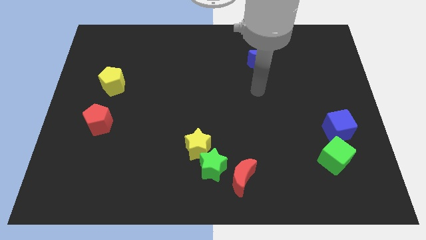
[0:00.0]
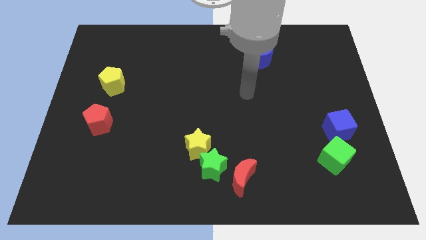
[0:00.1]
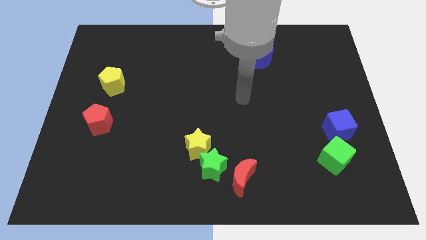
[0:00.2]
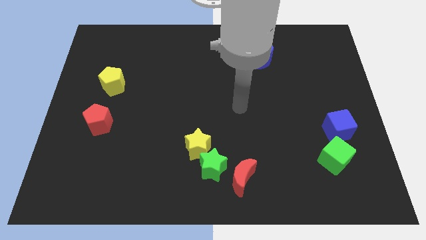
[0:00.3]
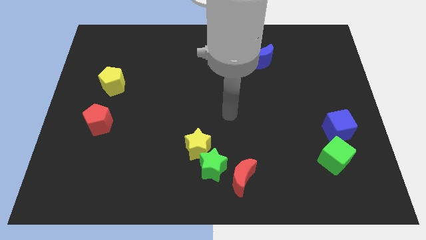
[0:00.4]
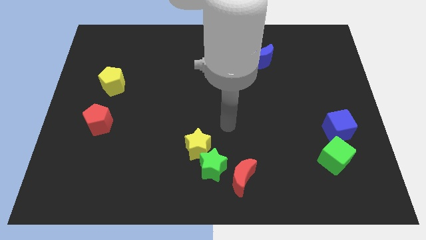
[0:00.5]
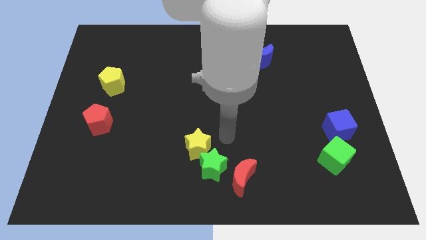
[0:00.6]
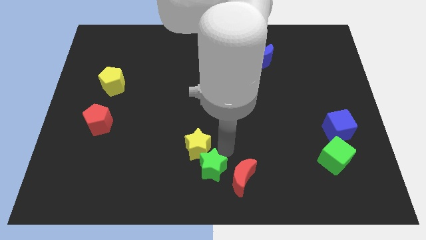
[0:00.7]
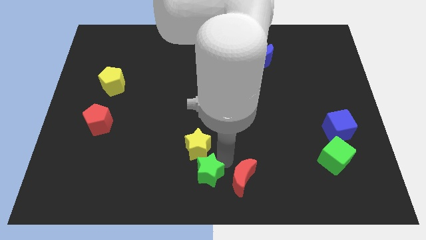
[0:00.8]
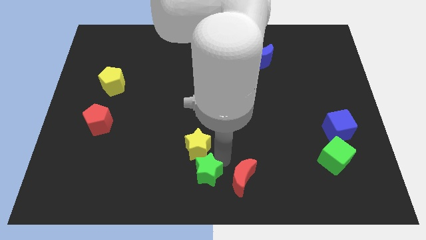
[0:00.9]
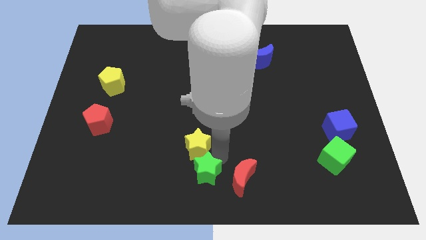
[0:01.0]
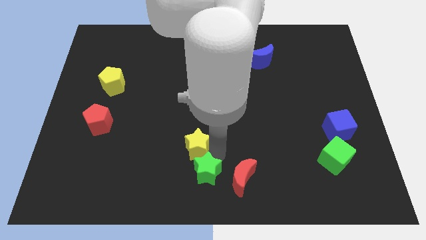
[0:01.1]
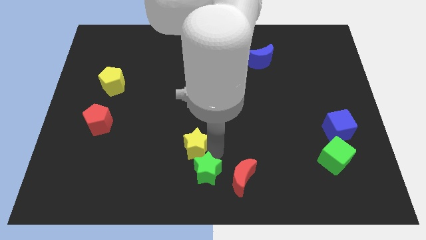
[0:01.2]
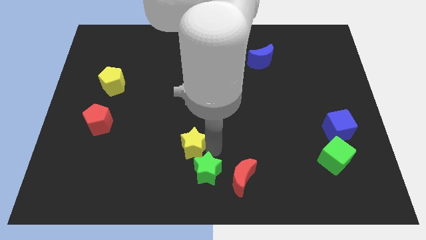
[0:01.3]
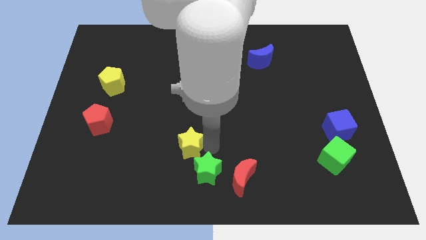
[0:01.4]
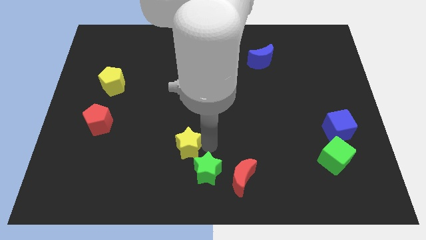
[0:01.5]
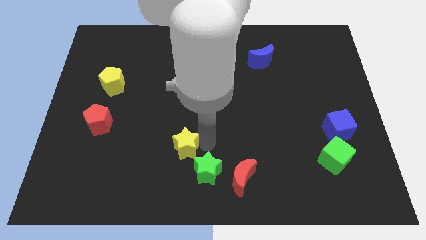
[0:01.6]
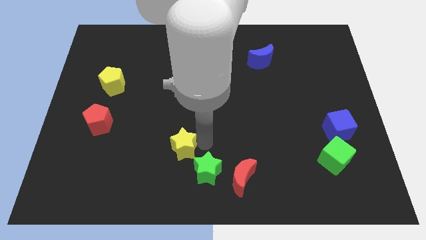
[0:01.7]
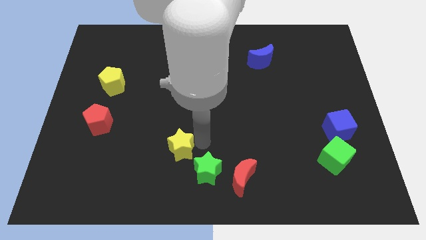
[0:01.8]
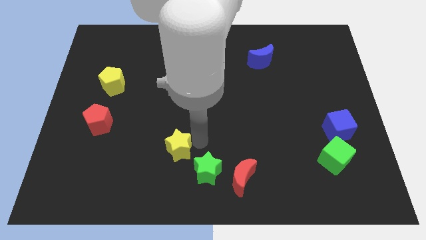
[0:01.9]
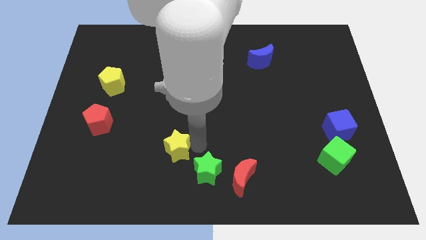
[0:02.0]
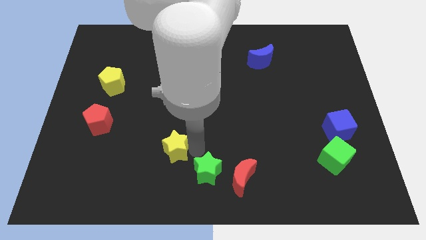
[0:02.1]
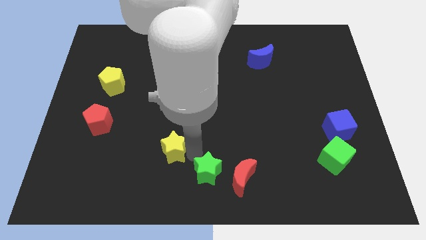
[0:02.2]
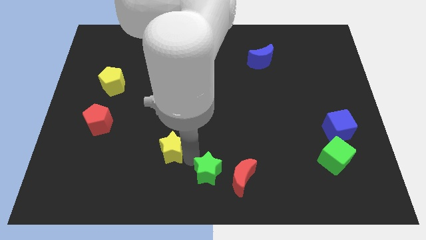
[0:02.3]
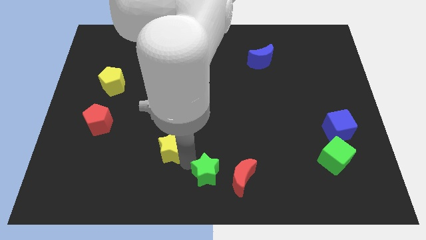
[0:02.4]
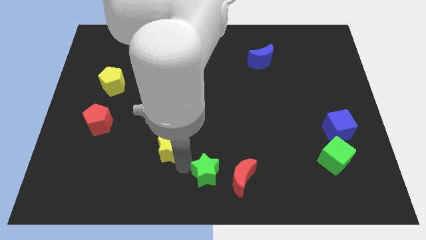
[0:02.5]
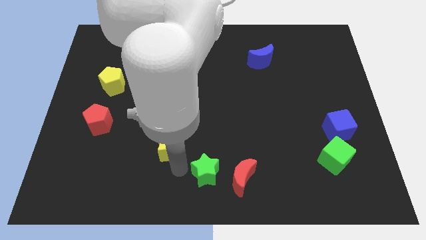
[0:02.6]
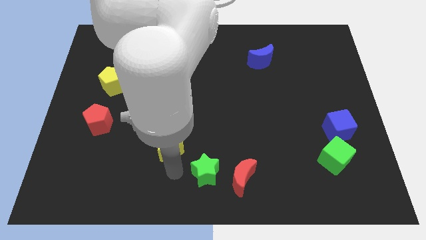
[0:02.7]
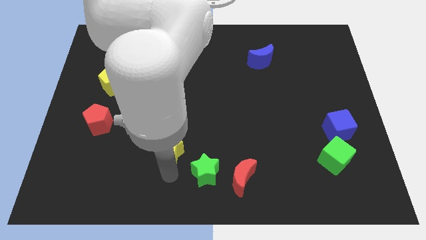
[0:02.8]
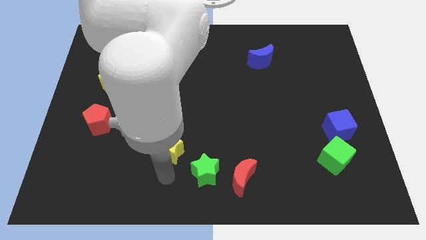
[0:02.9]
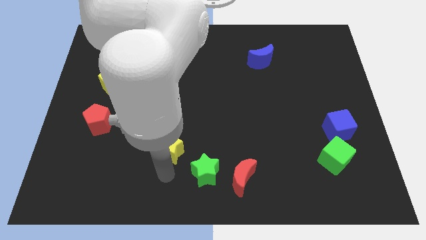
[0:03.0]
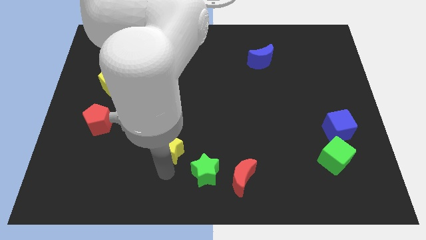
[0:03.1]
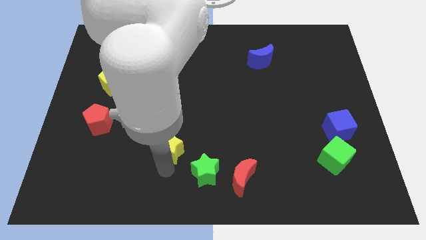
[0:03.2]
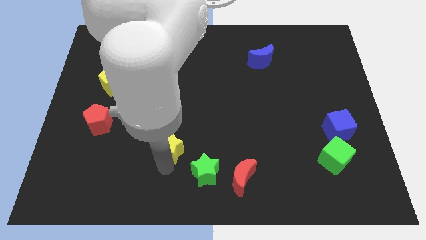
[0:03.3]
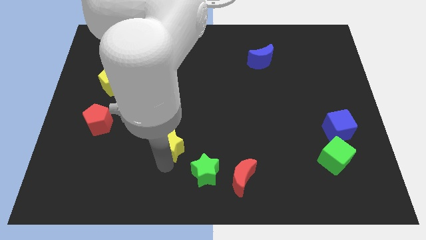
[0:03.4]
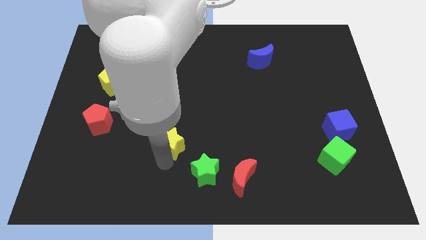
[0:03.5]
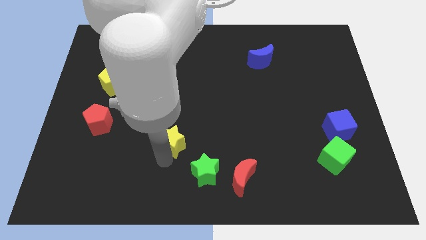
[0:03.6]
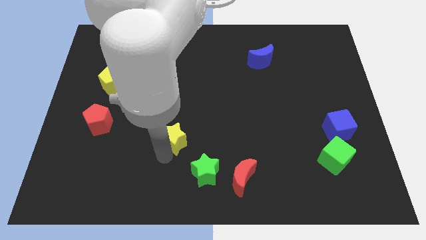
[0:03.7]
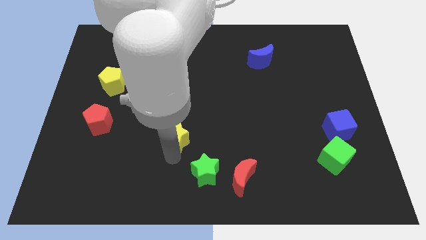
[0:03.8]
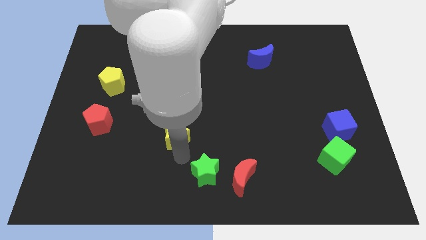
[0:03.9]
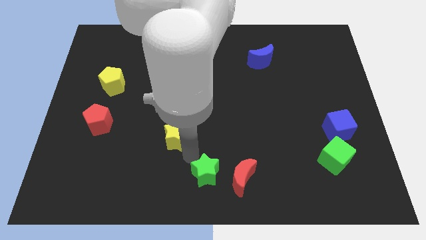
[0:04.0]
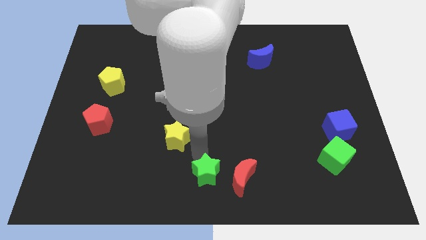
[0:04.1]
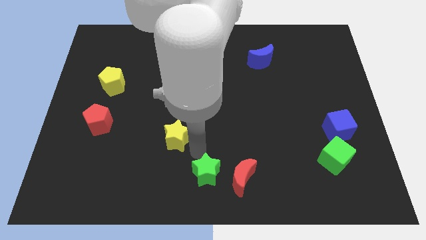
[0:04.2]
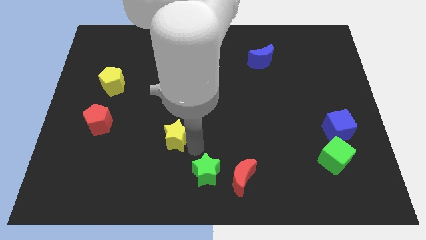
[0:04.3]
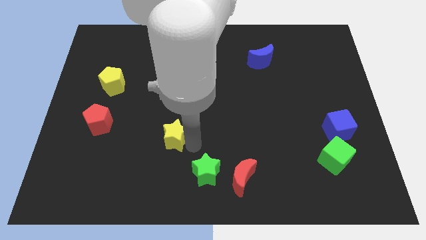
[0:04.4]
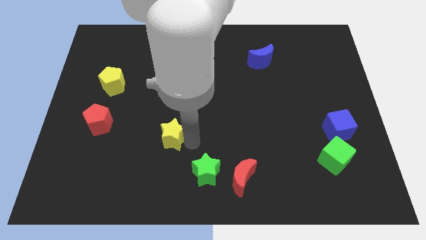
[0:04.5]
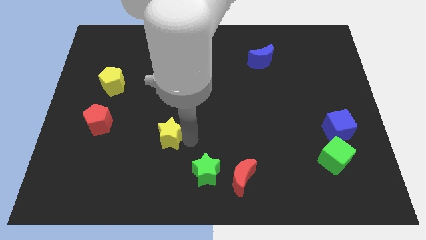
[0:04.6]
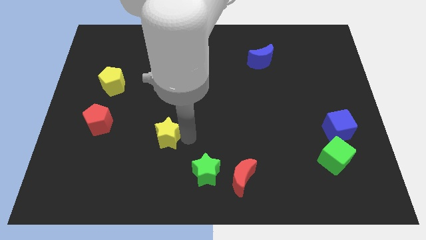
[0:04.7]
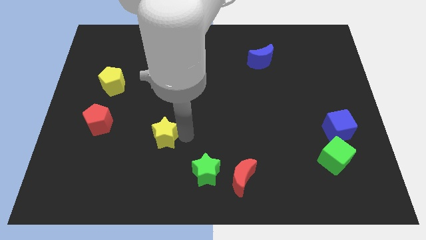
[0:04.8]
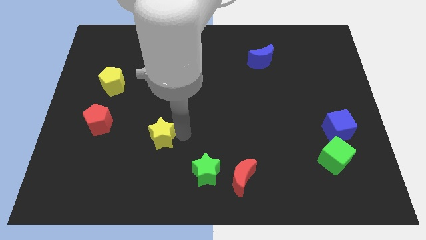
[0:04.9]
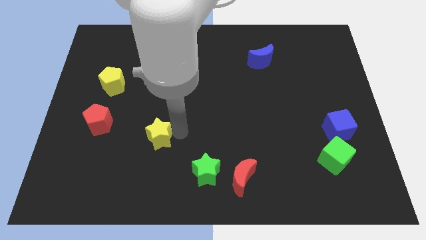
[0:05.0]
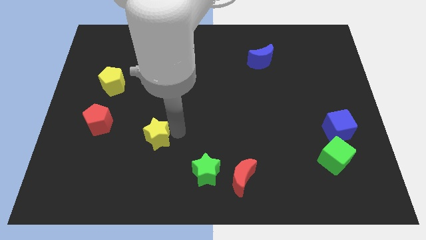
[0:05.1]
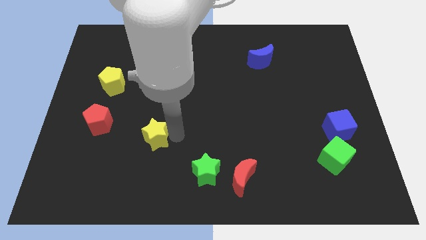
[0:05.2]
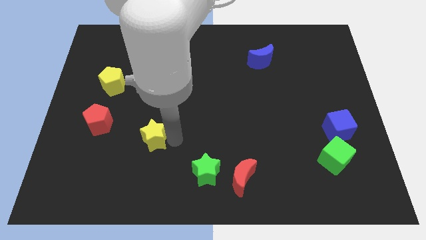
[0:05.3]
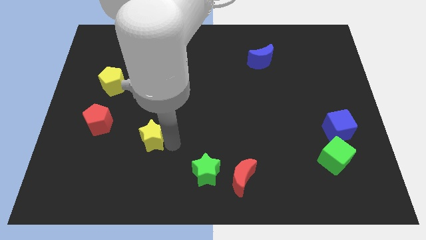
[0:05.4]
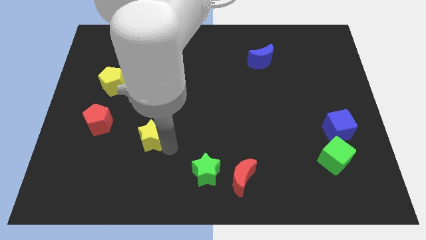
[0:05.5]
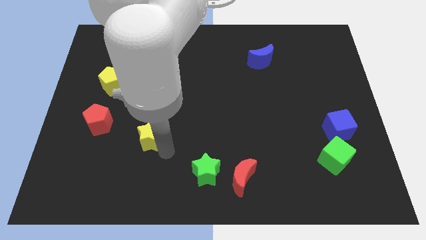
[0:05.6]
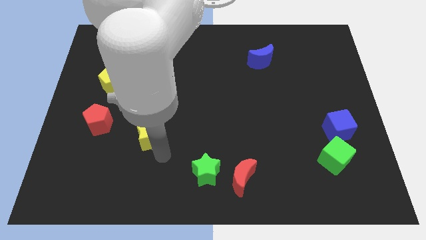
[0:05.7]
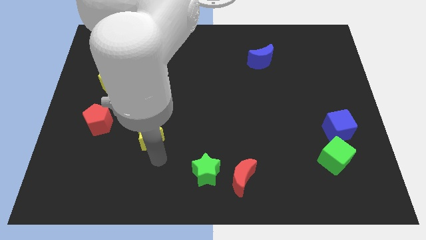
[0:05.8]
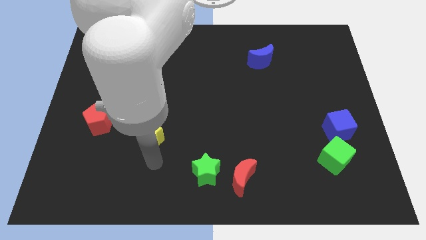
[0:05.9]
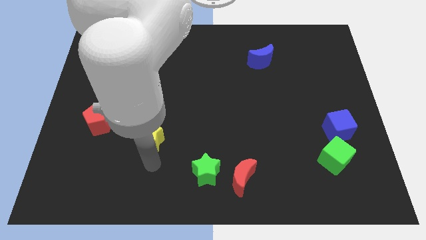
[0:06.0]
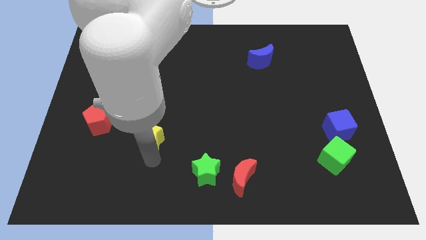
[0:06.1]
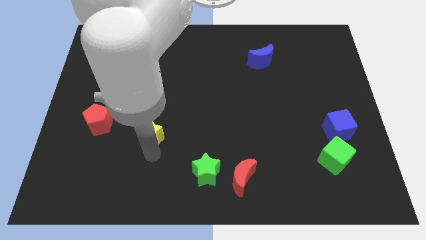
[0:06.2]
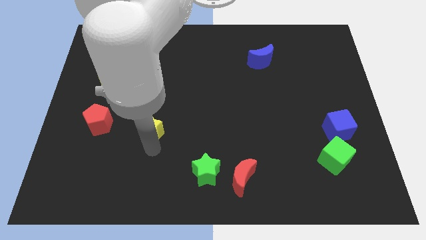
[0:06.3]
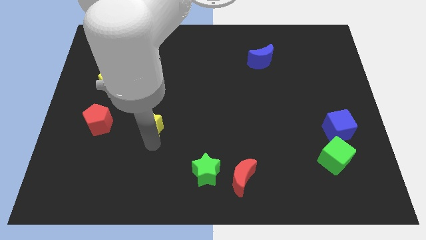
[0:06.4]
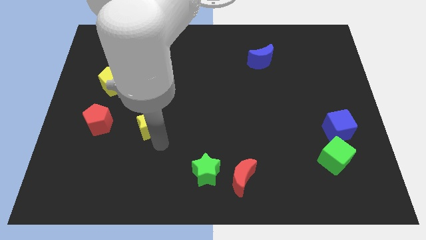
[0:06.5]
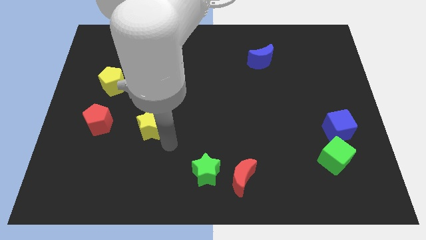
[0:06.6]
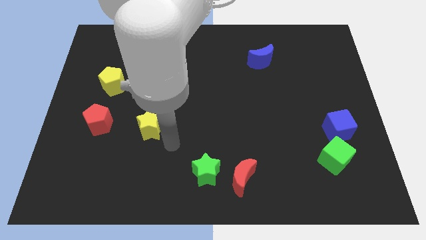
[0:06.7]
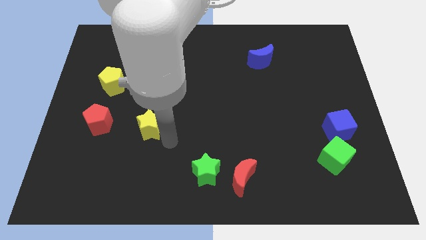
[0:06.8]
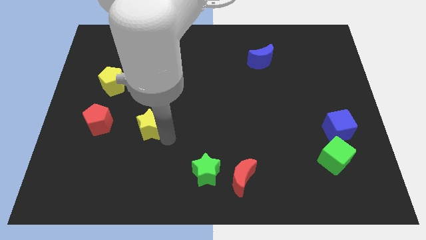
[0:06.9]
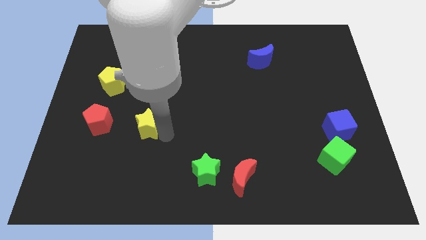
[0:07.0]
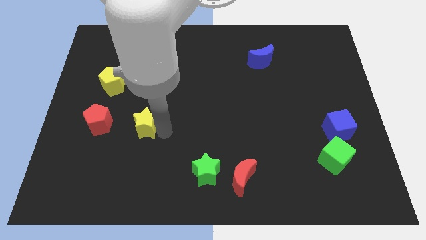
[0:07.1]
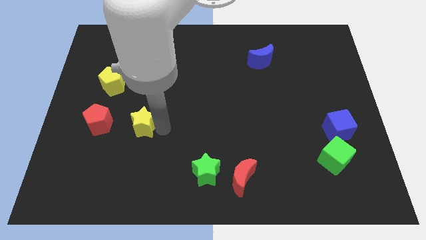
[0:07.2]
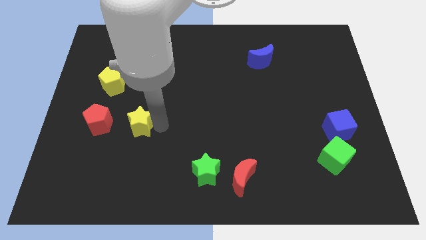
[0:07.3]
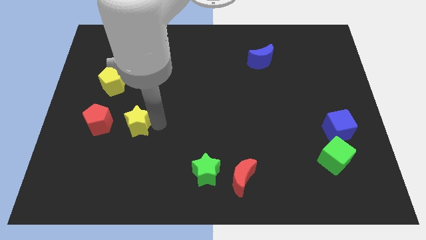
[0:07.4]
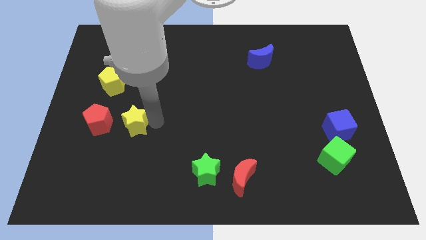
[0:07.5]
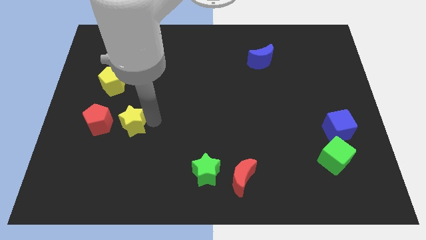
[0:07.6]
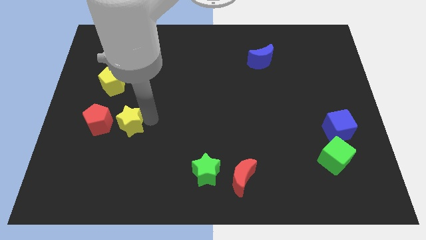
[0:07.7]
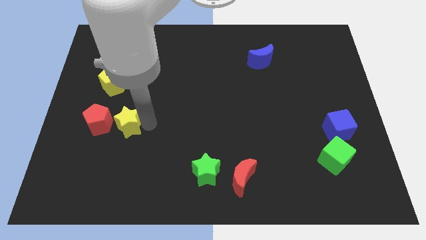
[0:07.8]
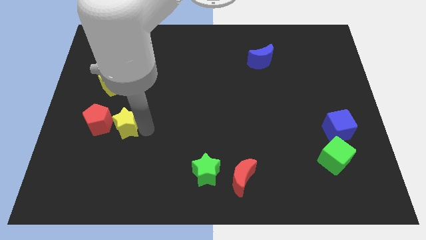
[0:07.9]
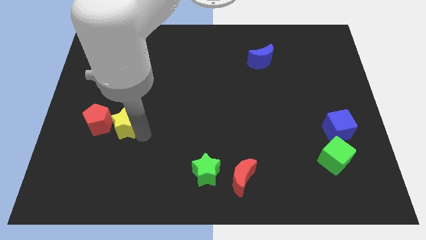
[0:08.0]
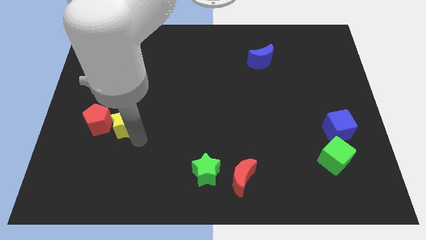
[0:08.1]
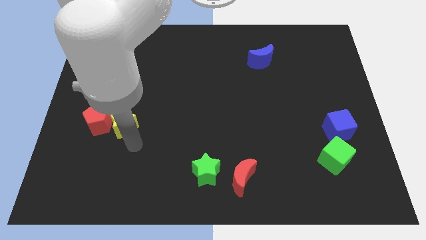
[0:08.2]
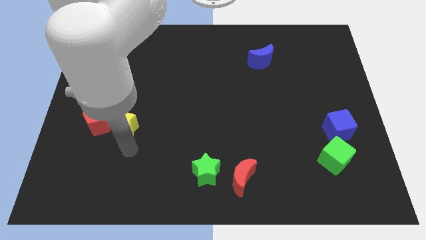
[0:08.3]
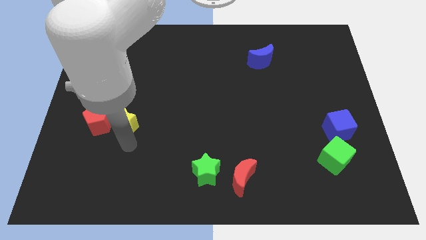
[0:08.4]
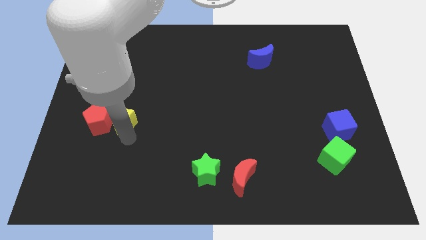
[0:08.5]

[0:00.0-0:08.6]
push the yellow star to the top right of the red pentagon
